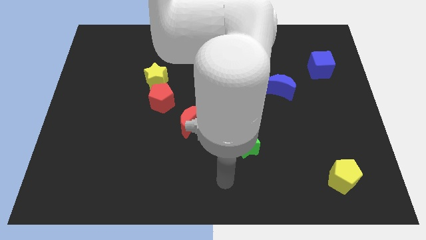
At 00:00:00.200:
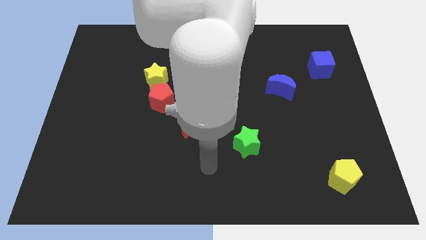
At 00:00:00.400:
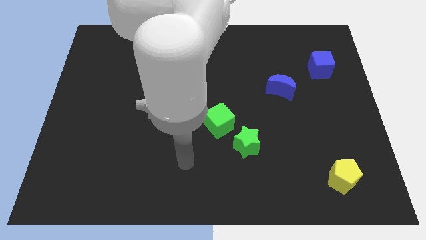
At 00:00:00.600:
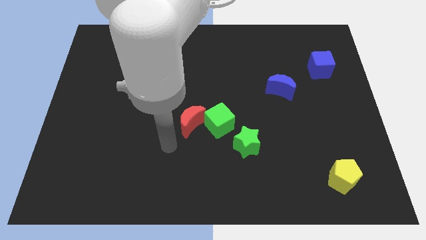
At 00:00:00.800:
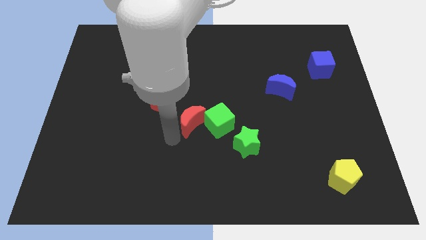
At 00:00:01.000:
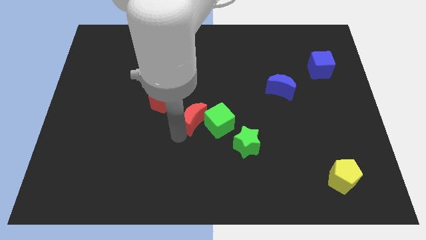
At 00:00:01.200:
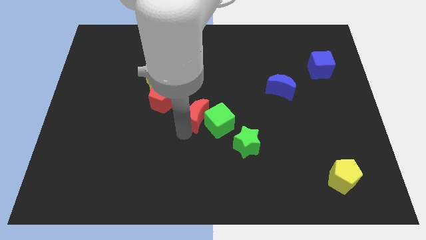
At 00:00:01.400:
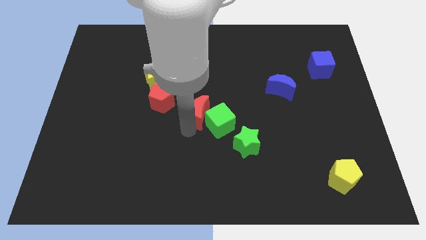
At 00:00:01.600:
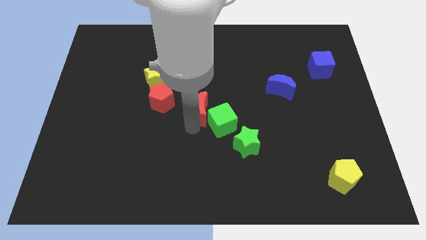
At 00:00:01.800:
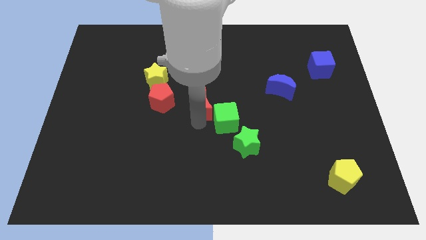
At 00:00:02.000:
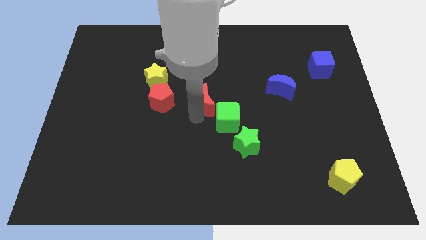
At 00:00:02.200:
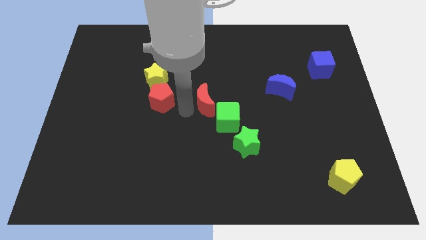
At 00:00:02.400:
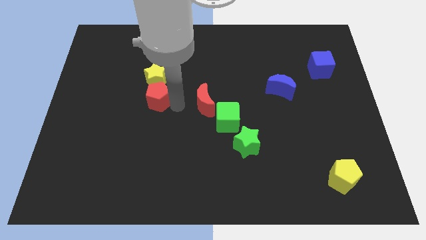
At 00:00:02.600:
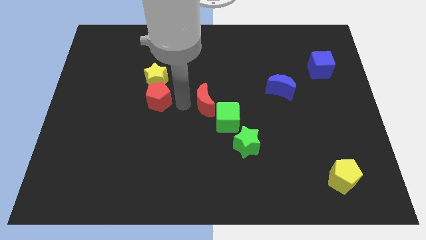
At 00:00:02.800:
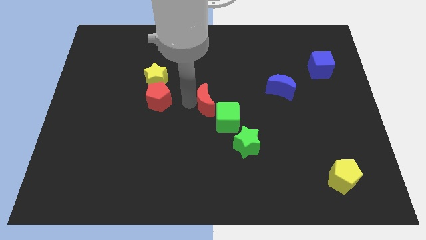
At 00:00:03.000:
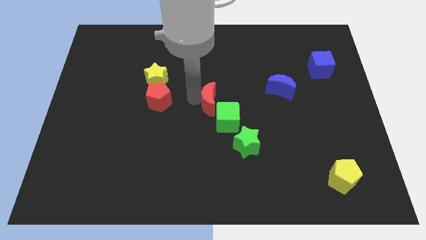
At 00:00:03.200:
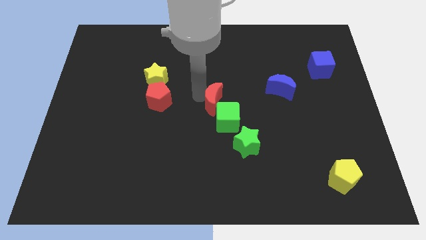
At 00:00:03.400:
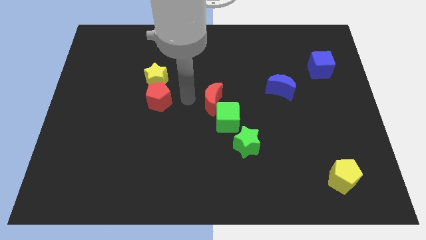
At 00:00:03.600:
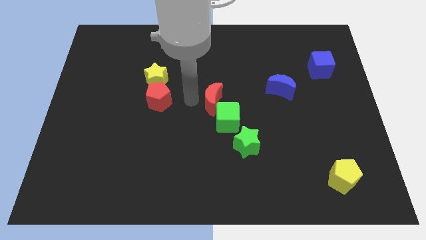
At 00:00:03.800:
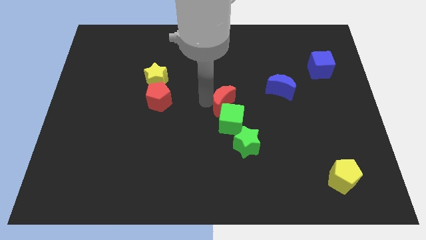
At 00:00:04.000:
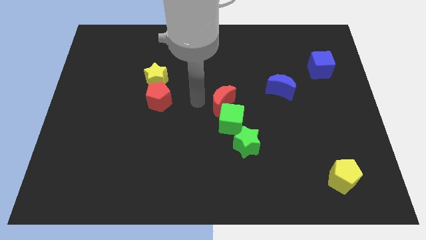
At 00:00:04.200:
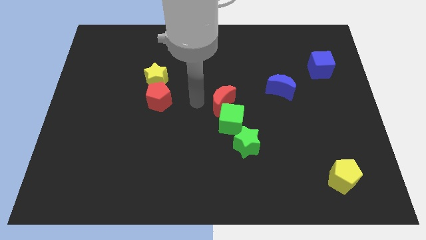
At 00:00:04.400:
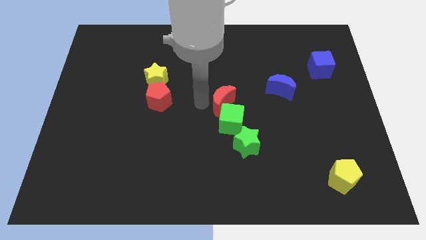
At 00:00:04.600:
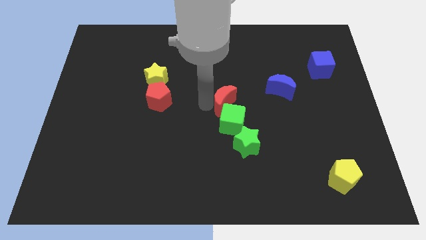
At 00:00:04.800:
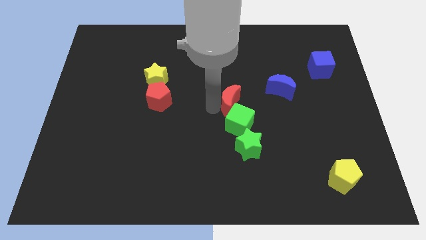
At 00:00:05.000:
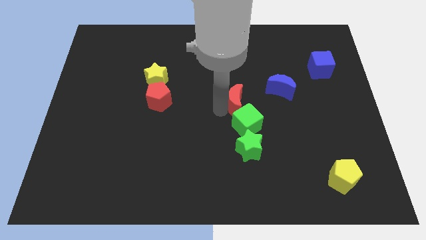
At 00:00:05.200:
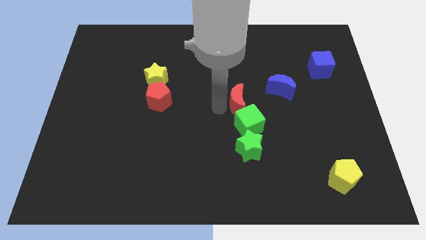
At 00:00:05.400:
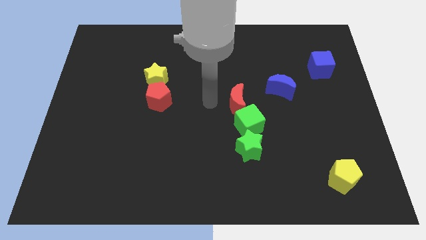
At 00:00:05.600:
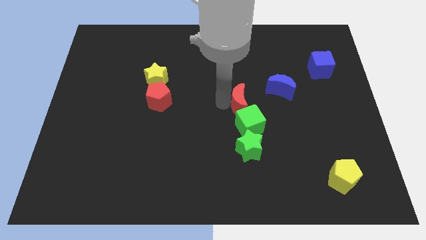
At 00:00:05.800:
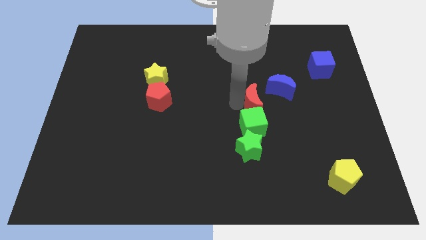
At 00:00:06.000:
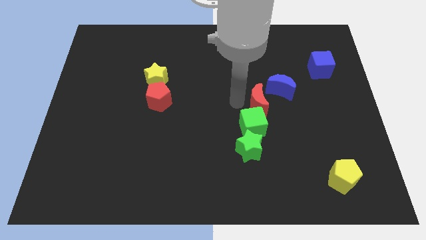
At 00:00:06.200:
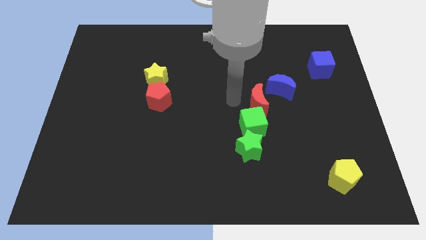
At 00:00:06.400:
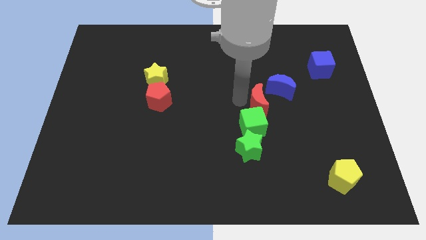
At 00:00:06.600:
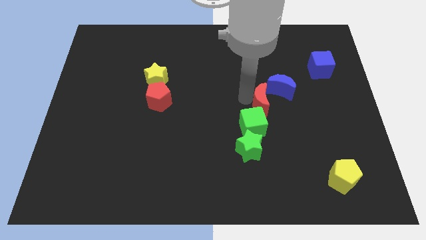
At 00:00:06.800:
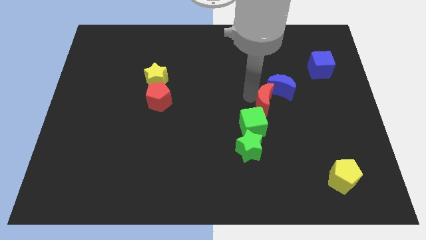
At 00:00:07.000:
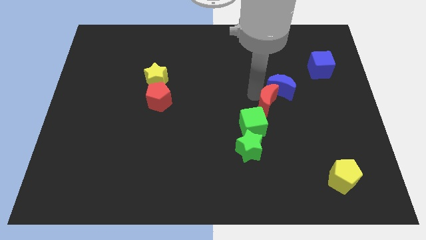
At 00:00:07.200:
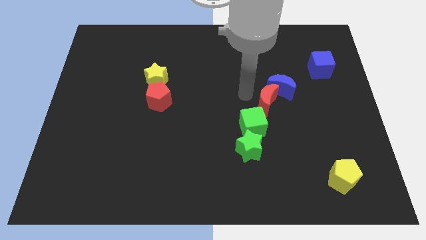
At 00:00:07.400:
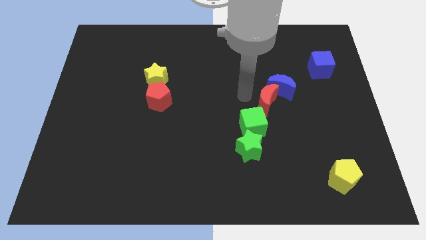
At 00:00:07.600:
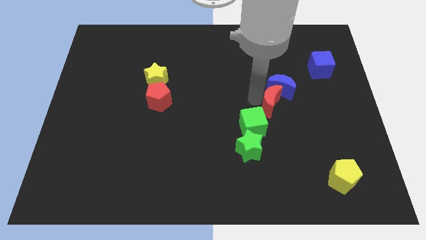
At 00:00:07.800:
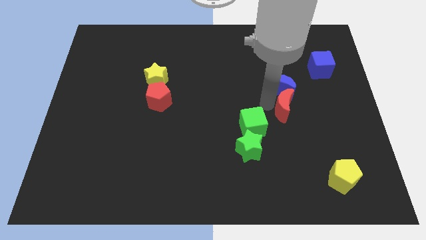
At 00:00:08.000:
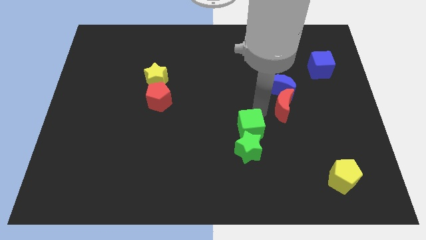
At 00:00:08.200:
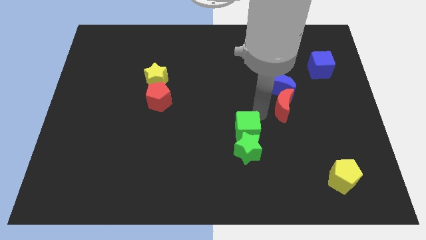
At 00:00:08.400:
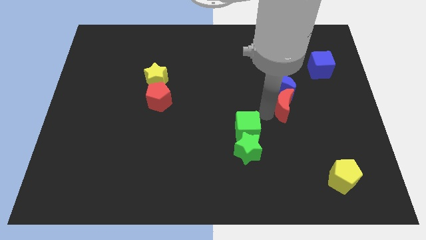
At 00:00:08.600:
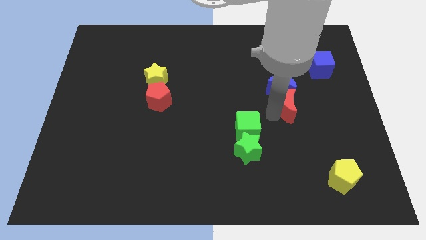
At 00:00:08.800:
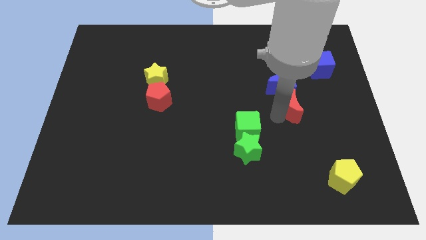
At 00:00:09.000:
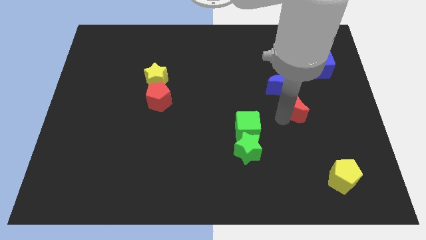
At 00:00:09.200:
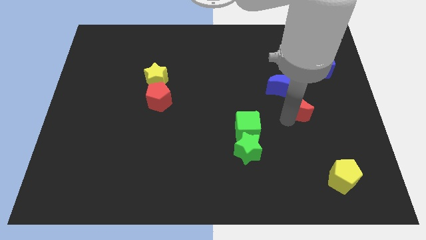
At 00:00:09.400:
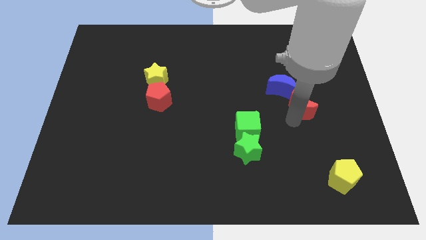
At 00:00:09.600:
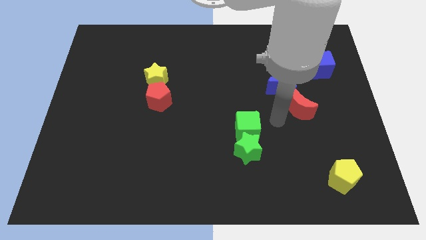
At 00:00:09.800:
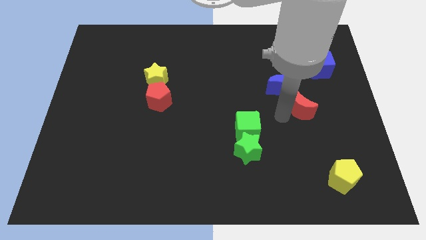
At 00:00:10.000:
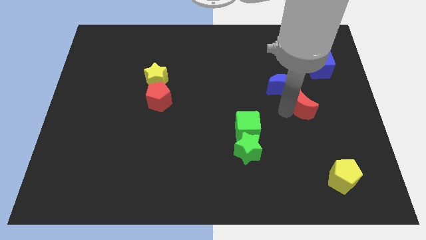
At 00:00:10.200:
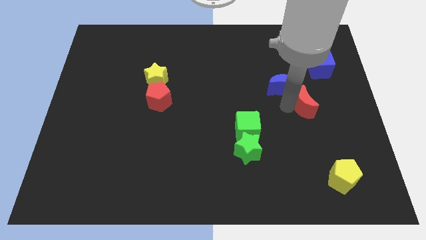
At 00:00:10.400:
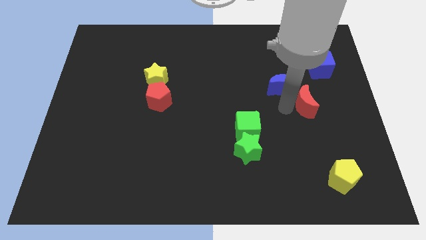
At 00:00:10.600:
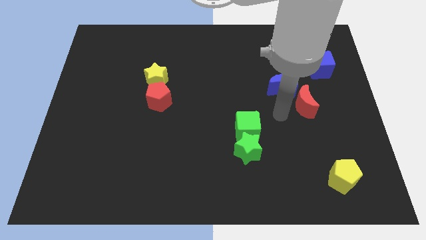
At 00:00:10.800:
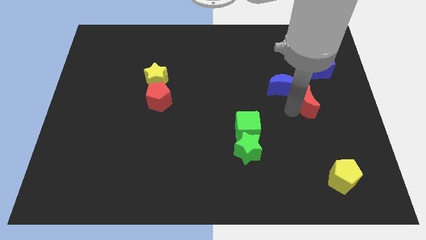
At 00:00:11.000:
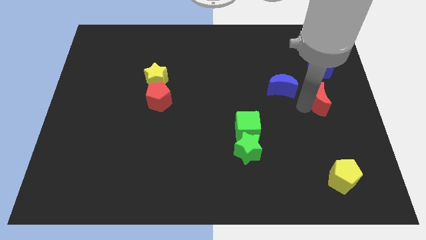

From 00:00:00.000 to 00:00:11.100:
put the red moon to the right side of the board

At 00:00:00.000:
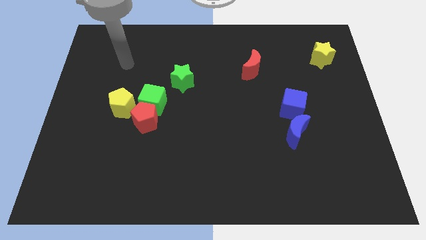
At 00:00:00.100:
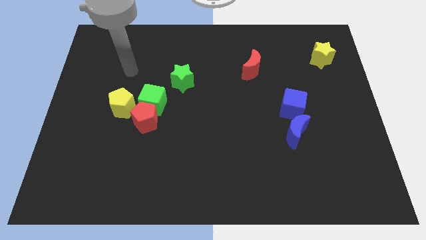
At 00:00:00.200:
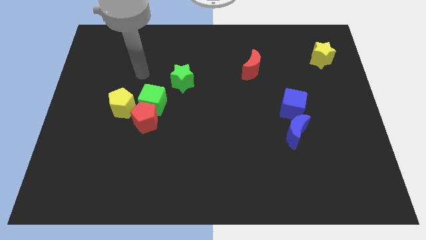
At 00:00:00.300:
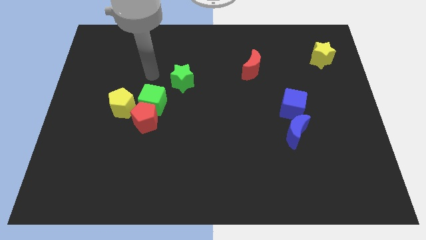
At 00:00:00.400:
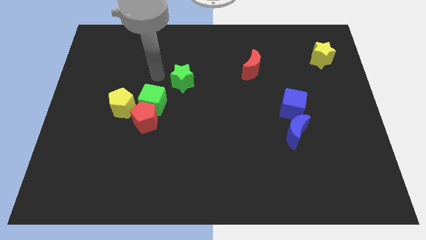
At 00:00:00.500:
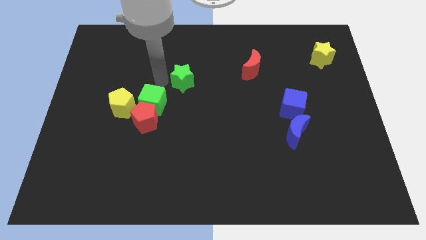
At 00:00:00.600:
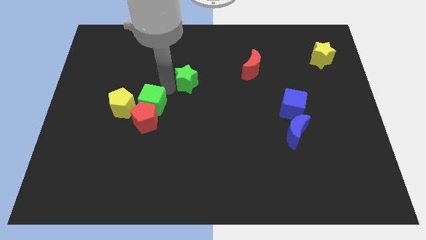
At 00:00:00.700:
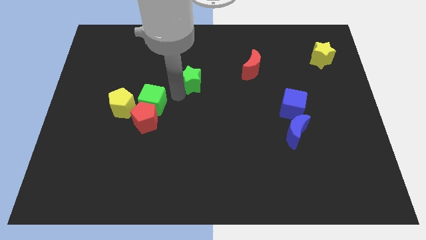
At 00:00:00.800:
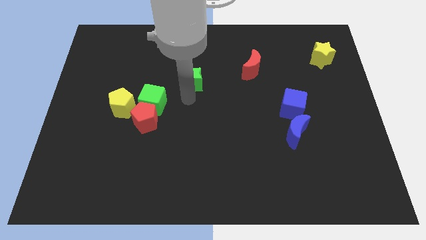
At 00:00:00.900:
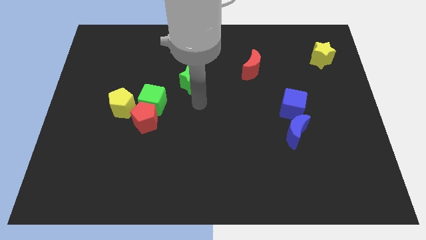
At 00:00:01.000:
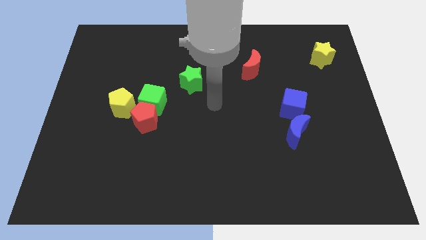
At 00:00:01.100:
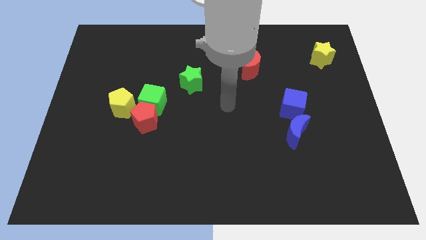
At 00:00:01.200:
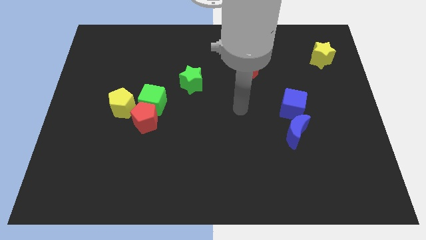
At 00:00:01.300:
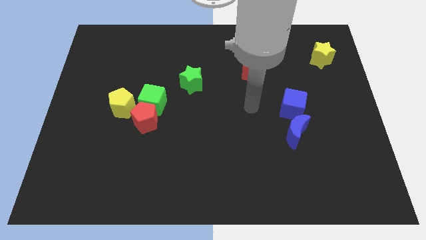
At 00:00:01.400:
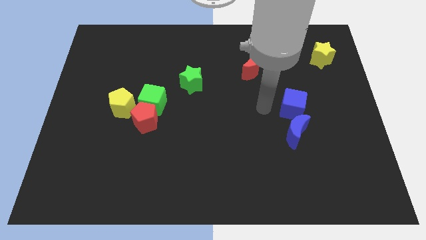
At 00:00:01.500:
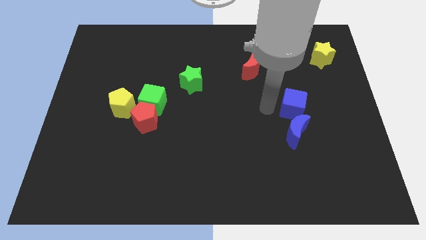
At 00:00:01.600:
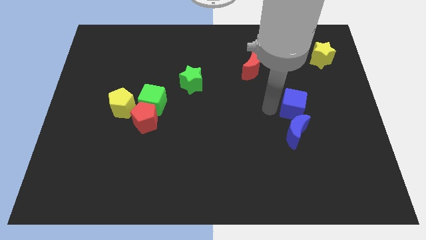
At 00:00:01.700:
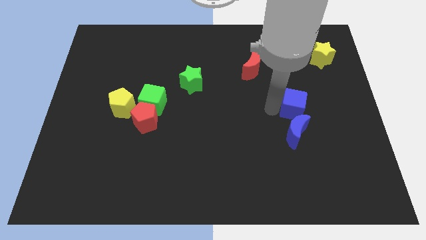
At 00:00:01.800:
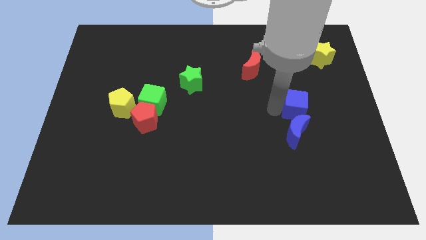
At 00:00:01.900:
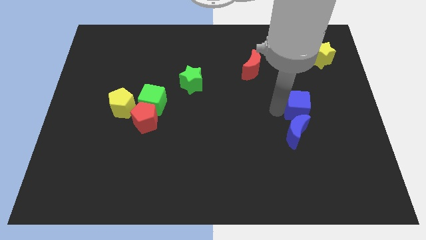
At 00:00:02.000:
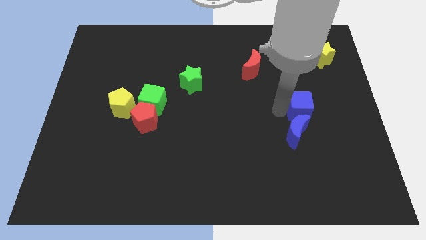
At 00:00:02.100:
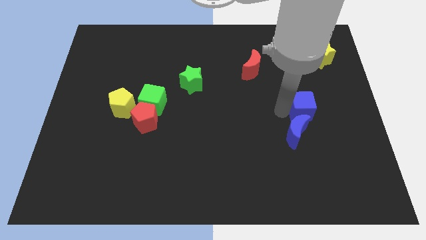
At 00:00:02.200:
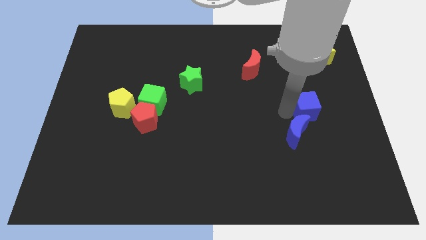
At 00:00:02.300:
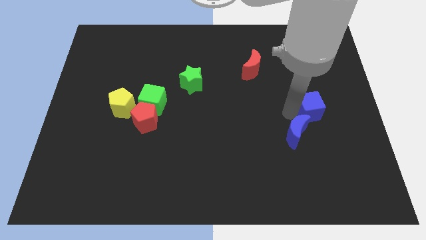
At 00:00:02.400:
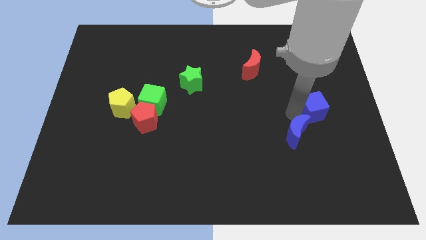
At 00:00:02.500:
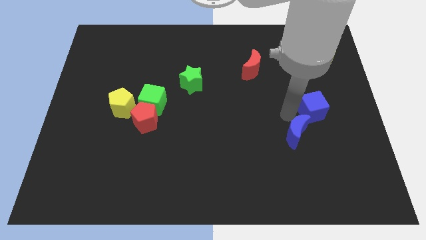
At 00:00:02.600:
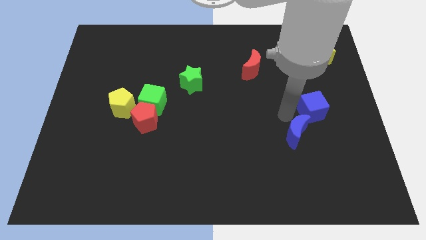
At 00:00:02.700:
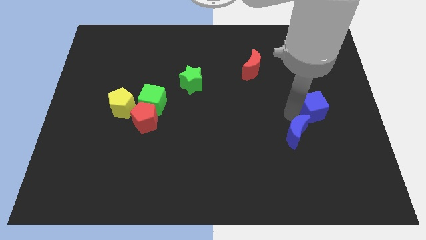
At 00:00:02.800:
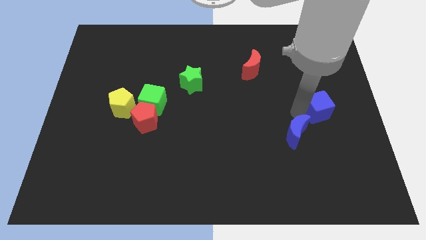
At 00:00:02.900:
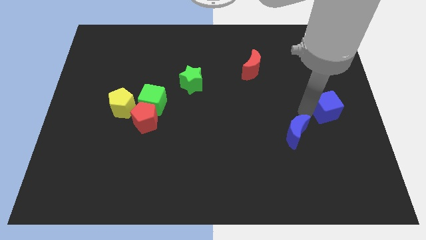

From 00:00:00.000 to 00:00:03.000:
move the blue cube to the right side
